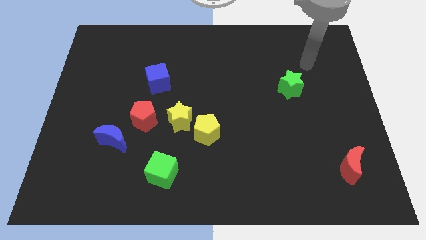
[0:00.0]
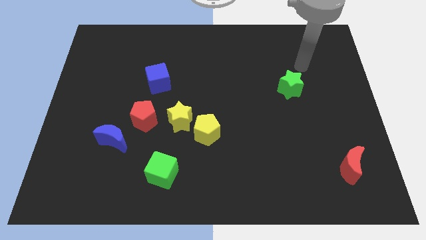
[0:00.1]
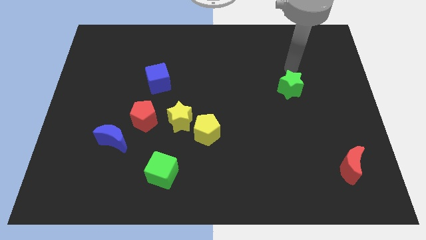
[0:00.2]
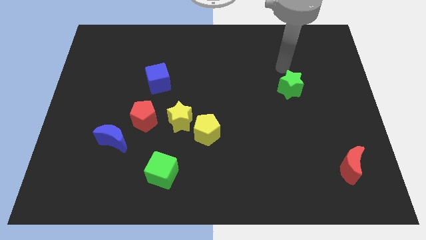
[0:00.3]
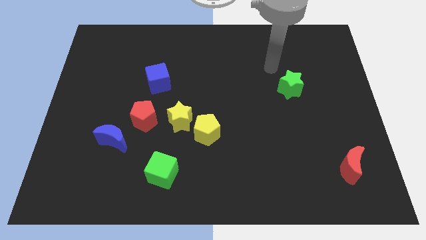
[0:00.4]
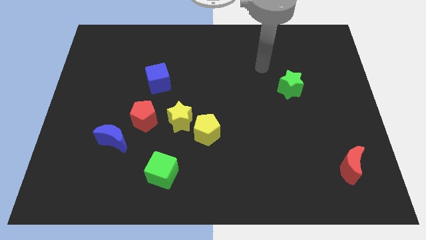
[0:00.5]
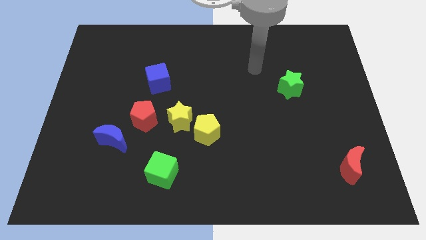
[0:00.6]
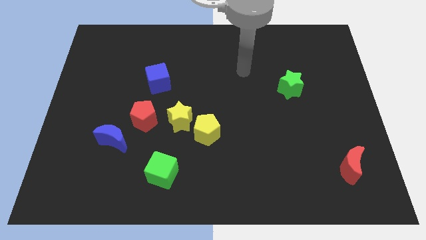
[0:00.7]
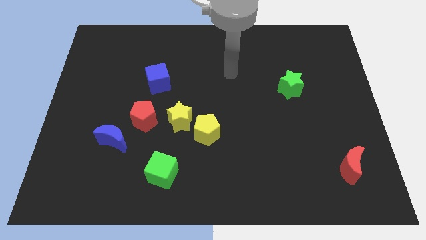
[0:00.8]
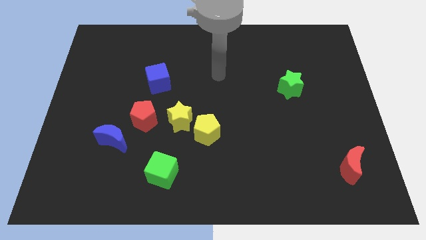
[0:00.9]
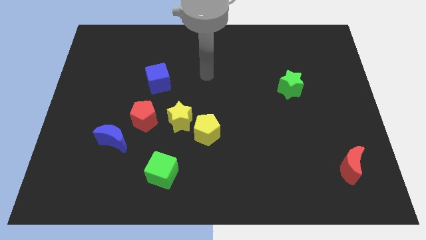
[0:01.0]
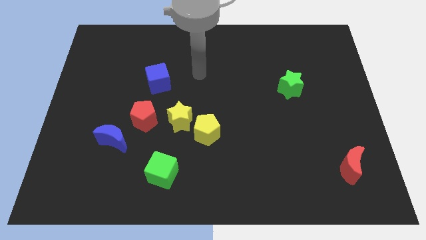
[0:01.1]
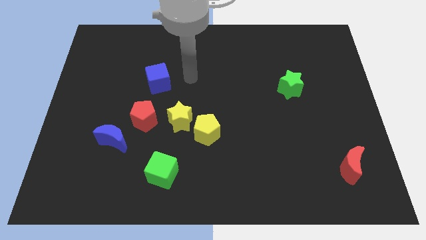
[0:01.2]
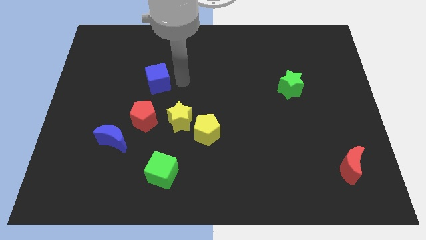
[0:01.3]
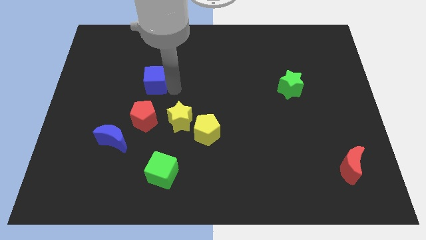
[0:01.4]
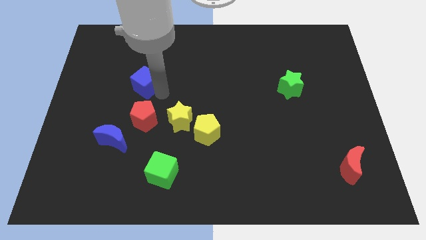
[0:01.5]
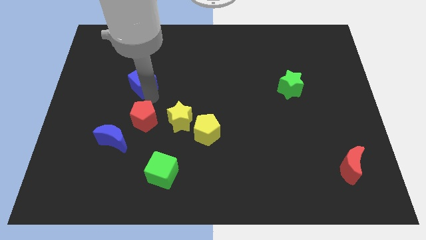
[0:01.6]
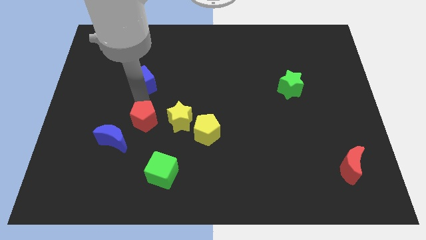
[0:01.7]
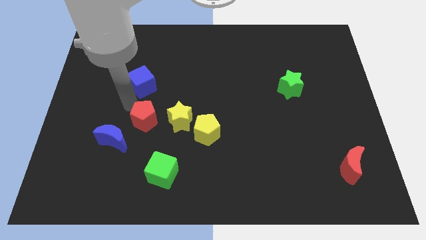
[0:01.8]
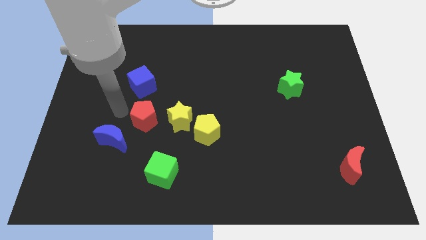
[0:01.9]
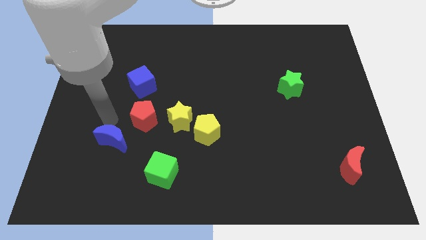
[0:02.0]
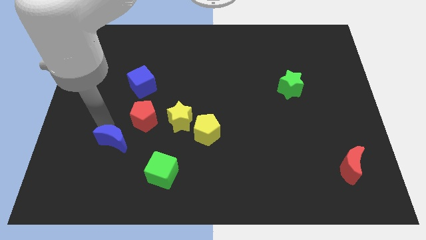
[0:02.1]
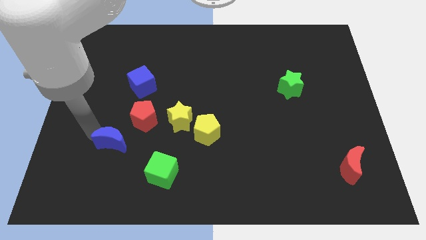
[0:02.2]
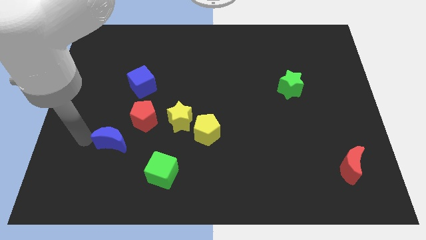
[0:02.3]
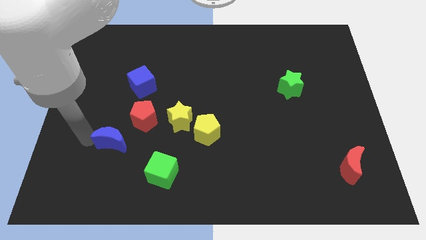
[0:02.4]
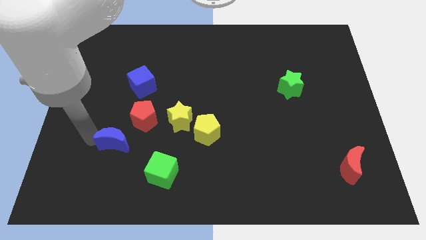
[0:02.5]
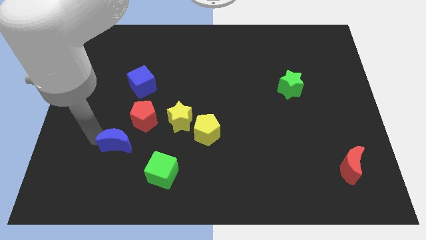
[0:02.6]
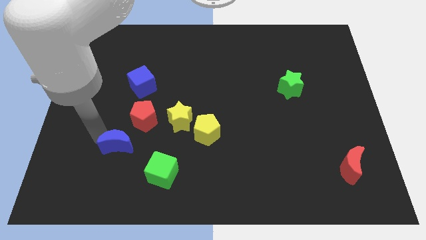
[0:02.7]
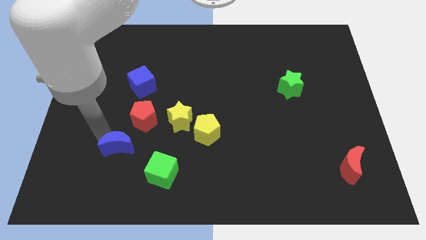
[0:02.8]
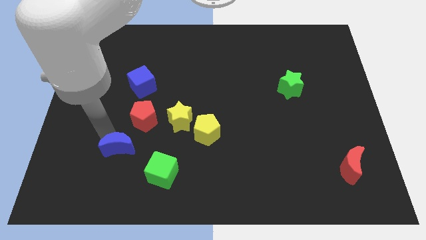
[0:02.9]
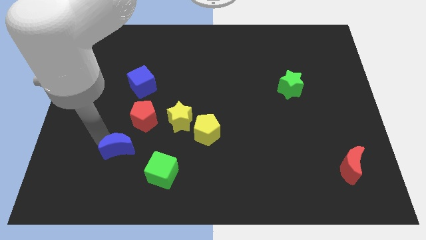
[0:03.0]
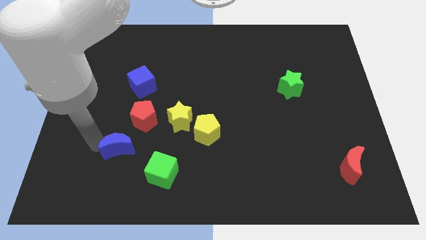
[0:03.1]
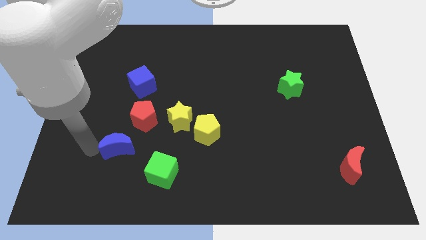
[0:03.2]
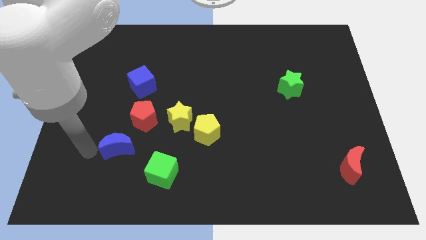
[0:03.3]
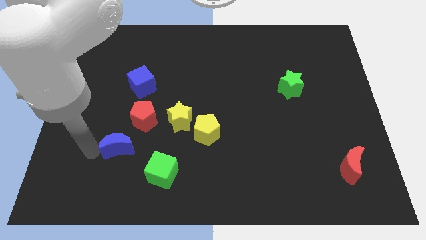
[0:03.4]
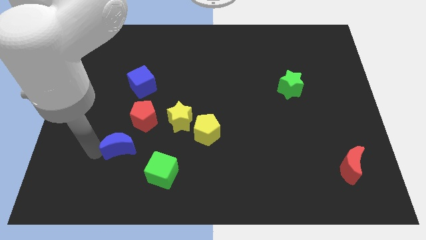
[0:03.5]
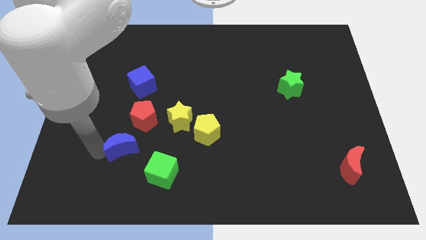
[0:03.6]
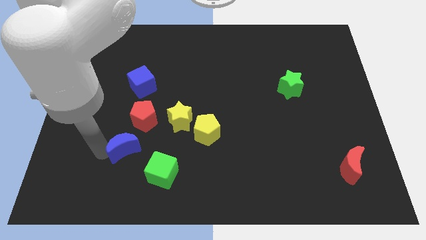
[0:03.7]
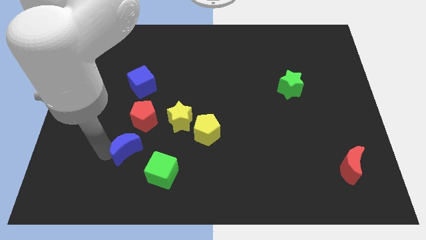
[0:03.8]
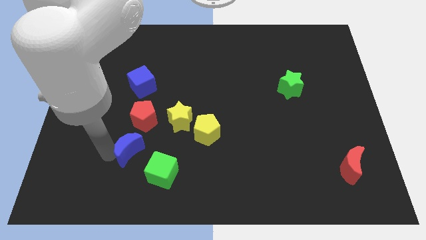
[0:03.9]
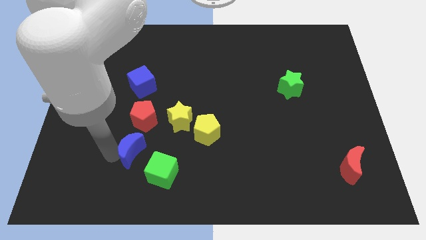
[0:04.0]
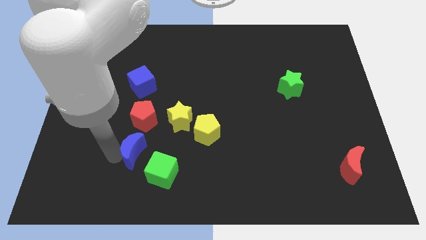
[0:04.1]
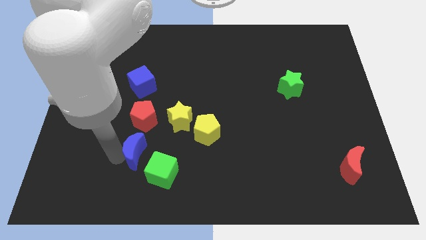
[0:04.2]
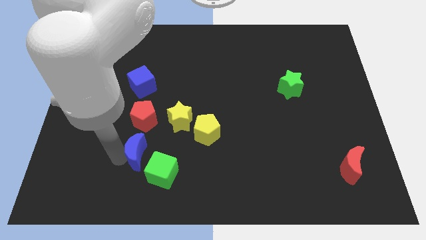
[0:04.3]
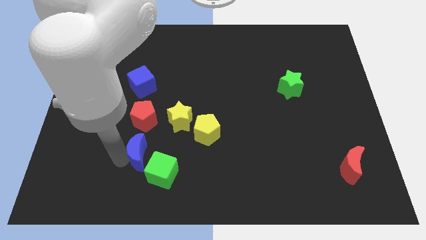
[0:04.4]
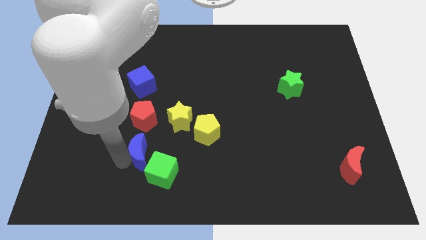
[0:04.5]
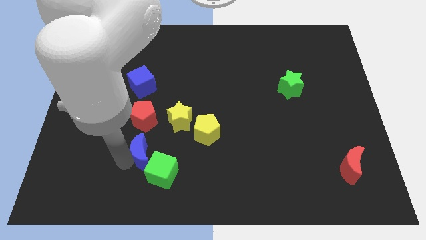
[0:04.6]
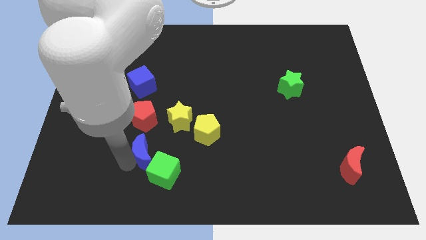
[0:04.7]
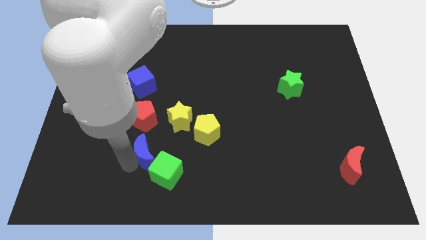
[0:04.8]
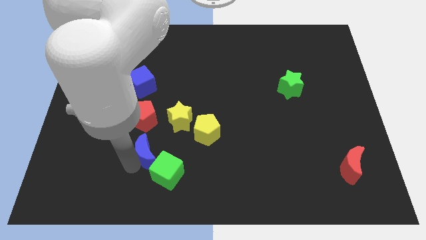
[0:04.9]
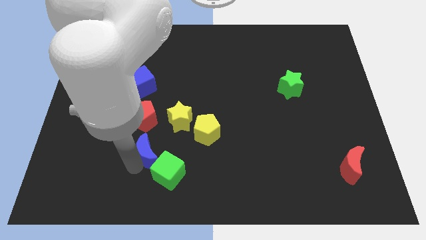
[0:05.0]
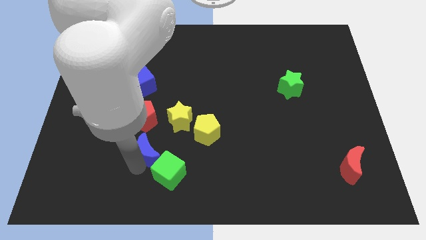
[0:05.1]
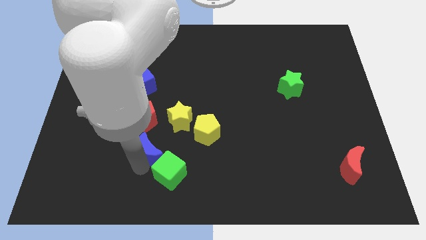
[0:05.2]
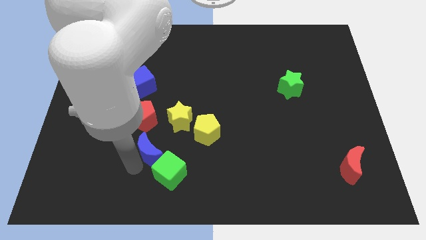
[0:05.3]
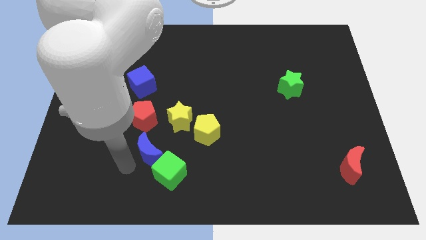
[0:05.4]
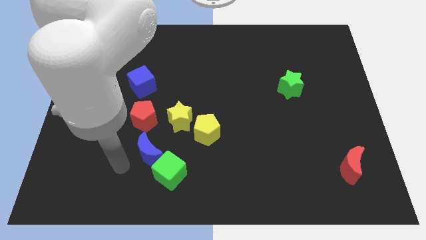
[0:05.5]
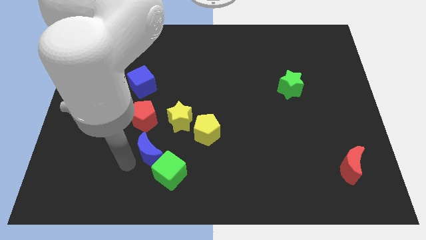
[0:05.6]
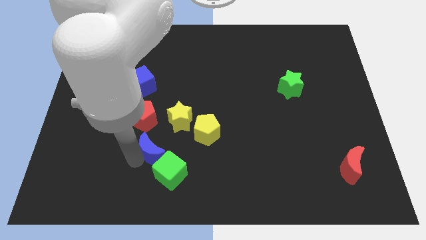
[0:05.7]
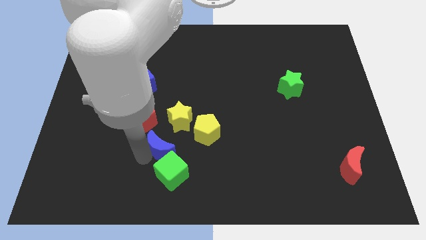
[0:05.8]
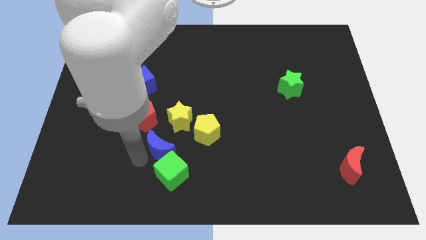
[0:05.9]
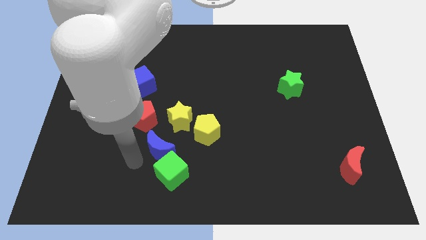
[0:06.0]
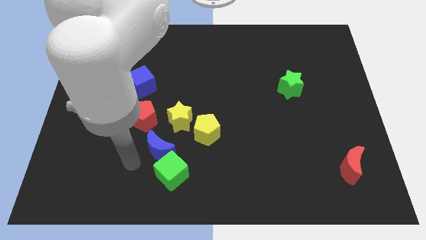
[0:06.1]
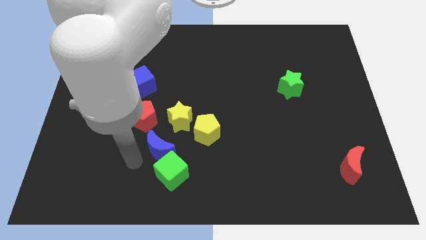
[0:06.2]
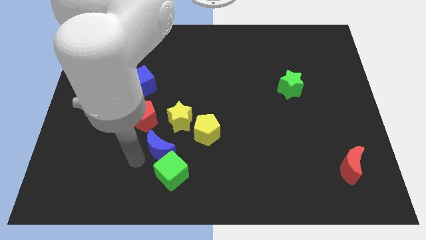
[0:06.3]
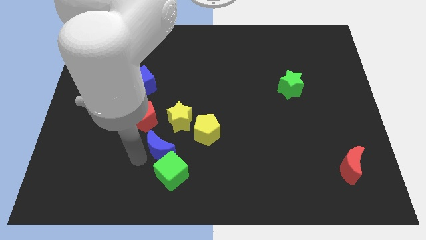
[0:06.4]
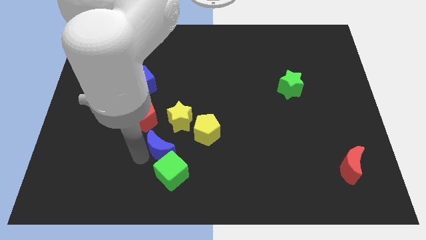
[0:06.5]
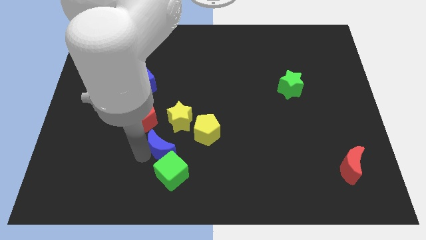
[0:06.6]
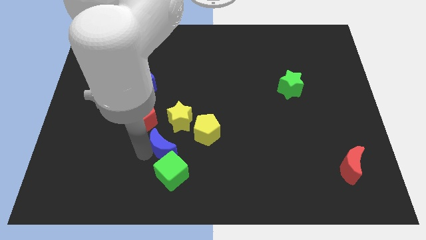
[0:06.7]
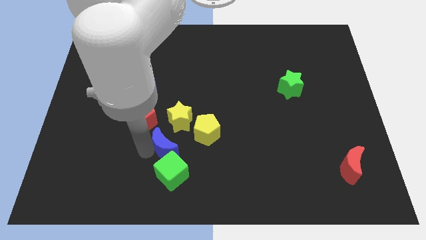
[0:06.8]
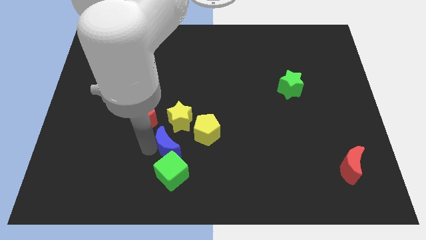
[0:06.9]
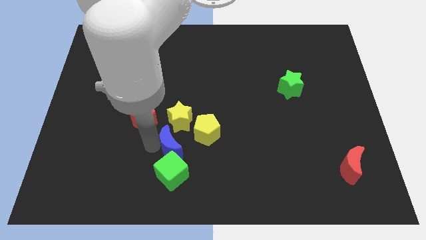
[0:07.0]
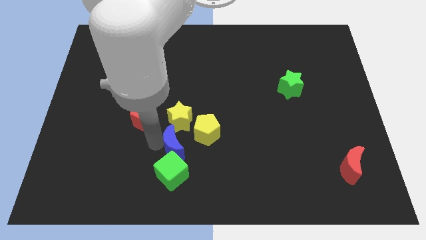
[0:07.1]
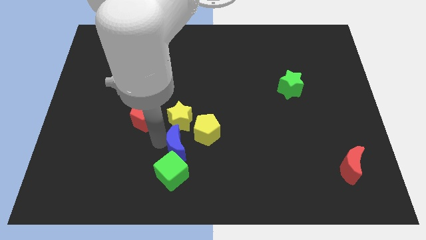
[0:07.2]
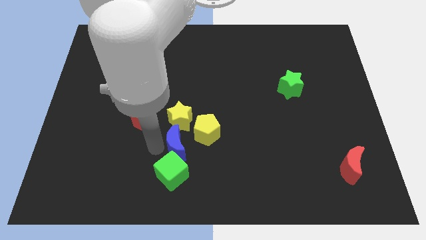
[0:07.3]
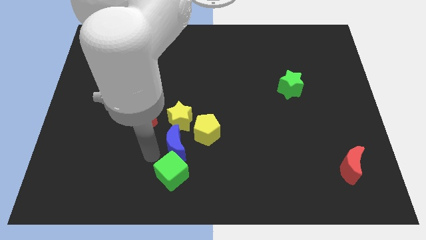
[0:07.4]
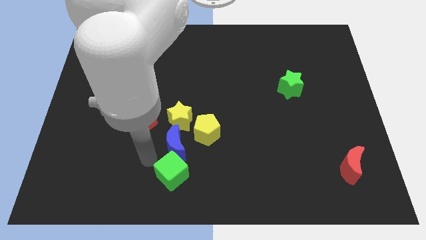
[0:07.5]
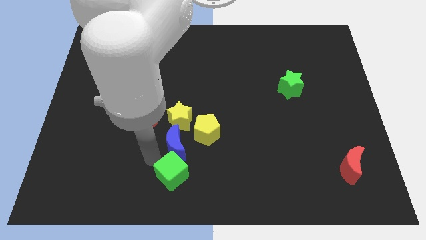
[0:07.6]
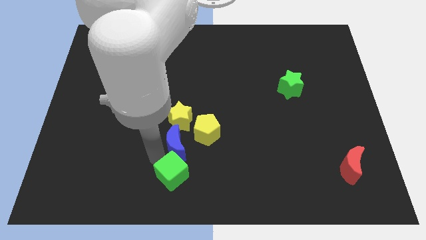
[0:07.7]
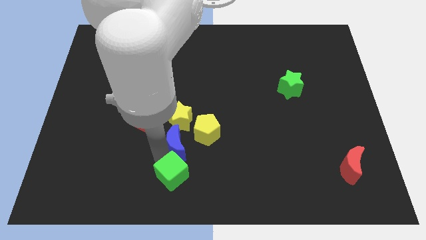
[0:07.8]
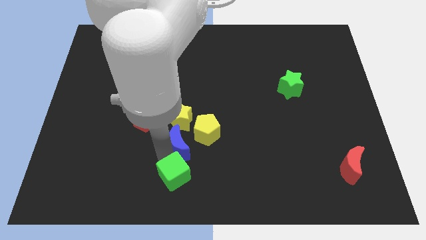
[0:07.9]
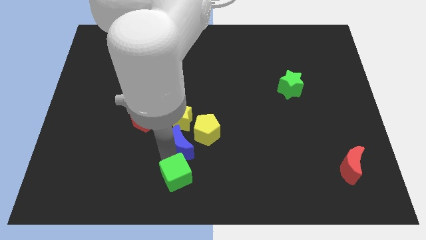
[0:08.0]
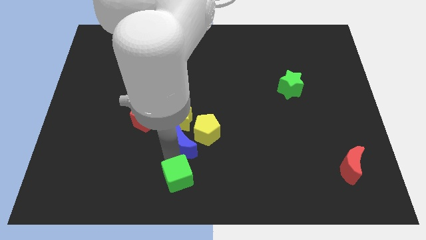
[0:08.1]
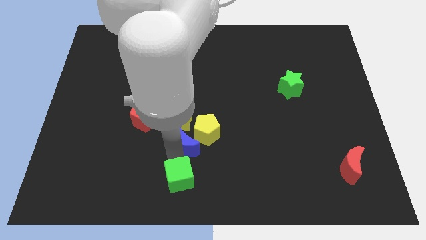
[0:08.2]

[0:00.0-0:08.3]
put the blue moon towards the yellow pentagon
